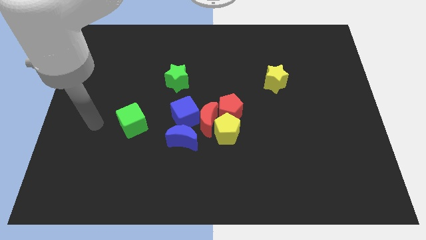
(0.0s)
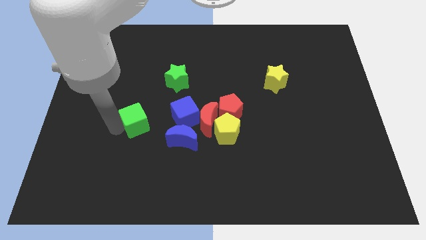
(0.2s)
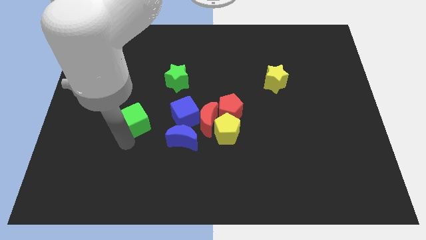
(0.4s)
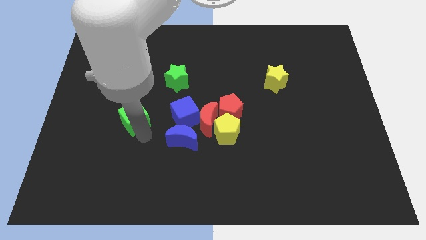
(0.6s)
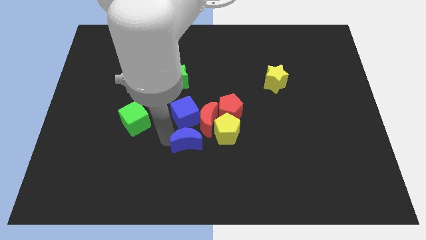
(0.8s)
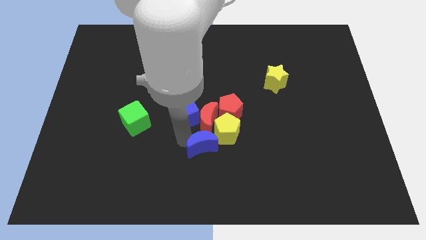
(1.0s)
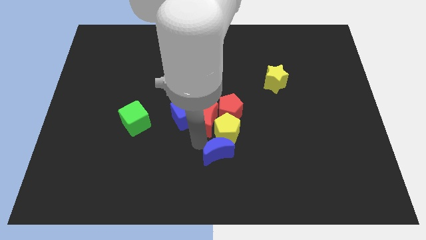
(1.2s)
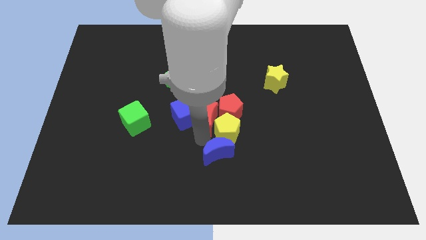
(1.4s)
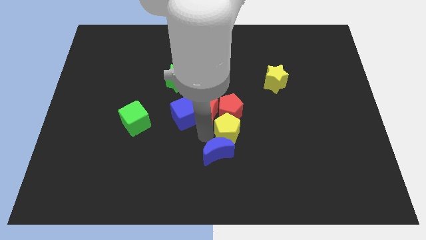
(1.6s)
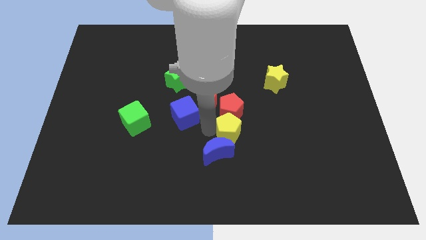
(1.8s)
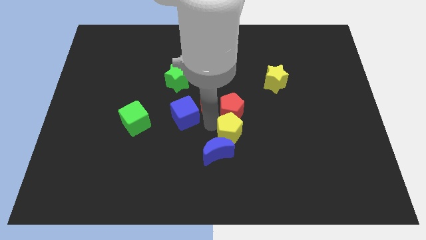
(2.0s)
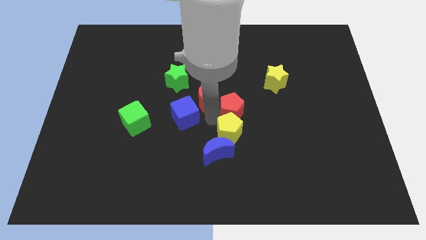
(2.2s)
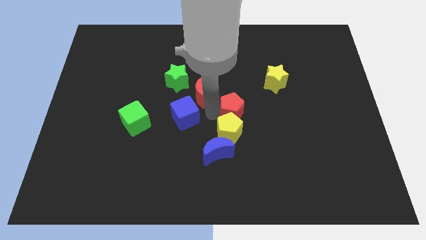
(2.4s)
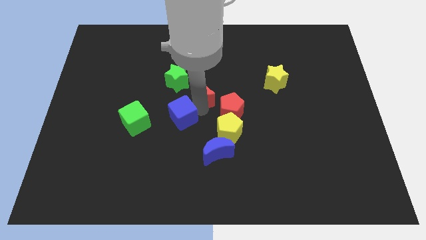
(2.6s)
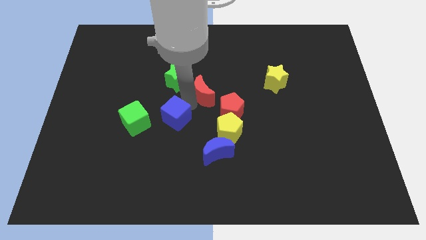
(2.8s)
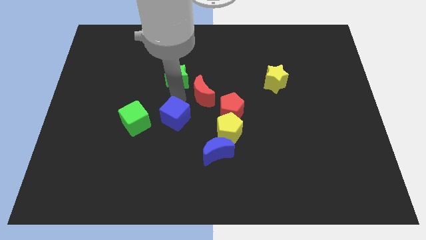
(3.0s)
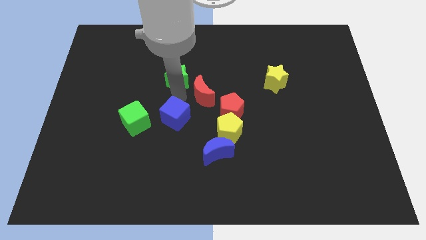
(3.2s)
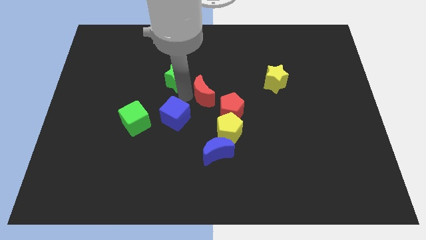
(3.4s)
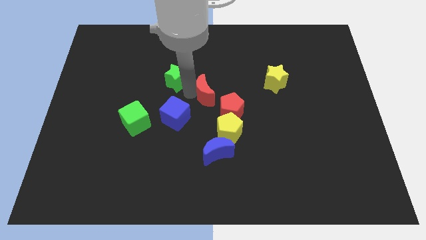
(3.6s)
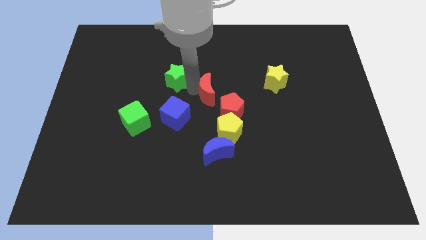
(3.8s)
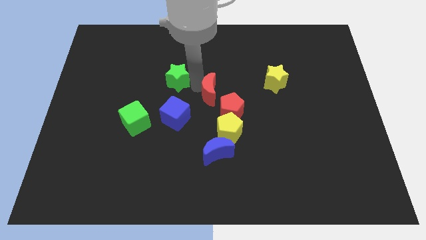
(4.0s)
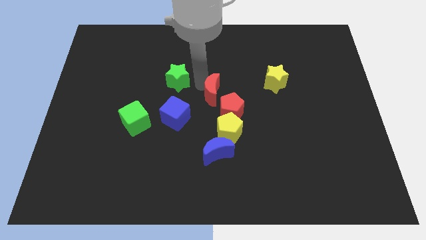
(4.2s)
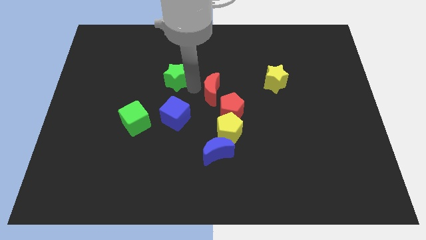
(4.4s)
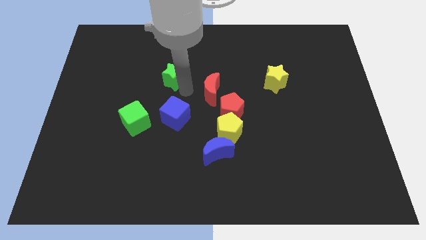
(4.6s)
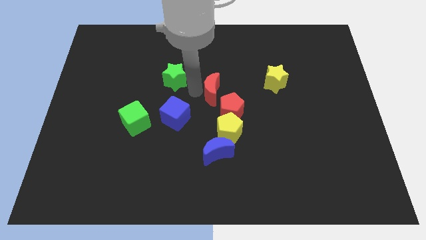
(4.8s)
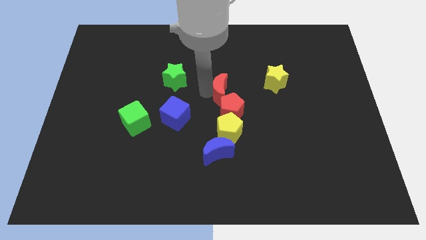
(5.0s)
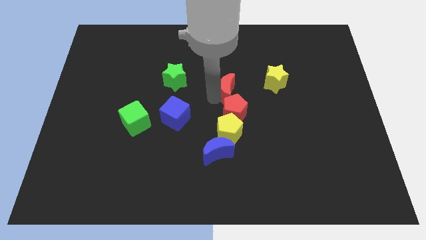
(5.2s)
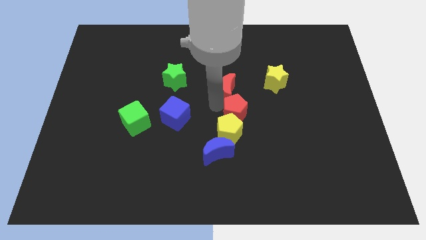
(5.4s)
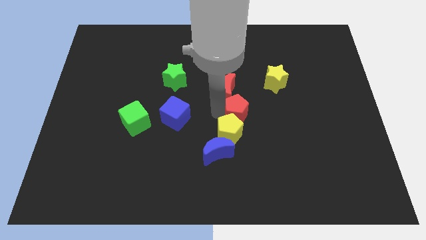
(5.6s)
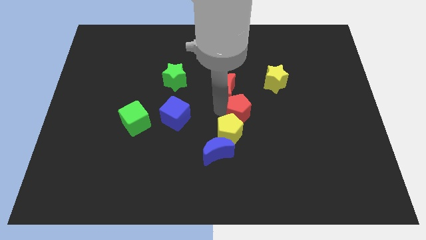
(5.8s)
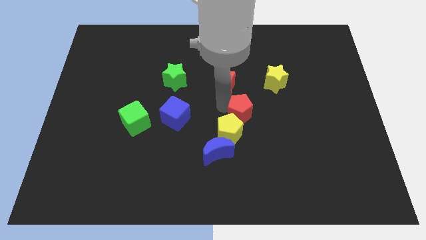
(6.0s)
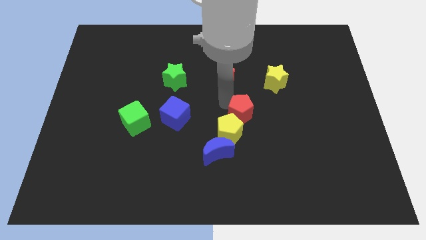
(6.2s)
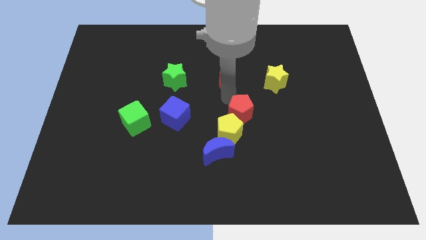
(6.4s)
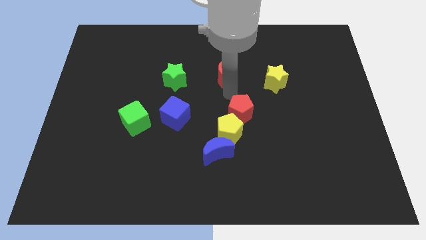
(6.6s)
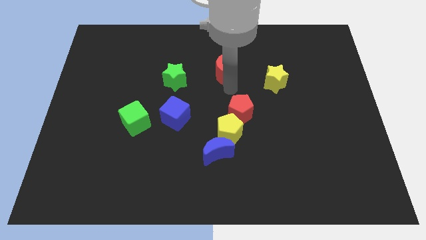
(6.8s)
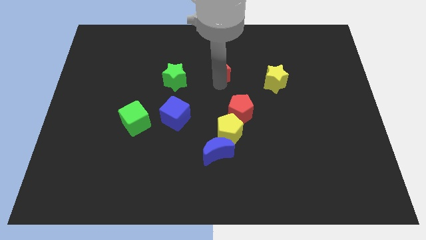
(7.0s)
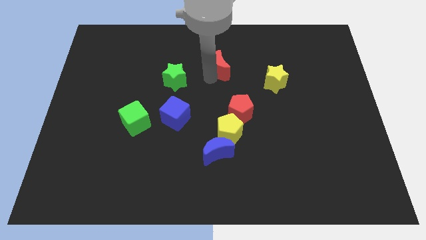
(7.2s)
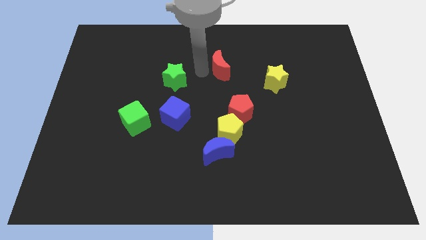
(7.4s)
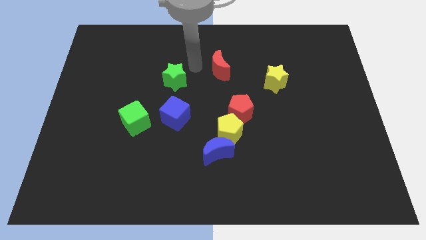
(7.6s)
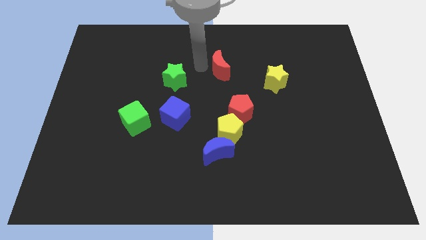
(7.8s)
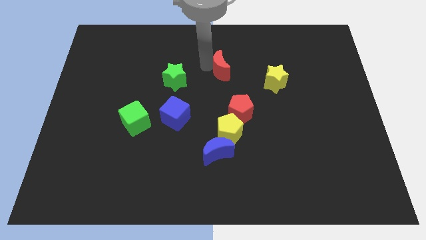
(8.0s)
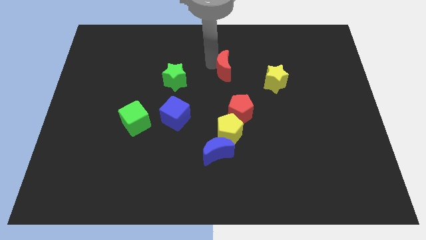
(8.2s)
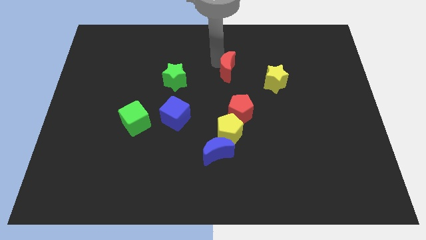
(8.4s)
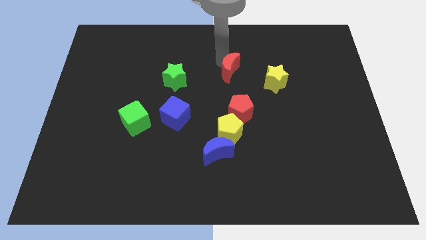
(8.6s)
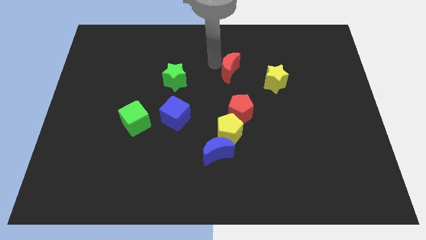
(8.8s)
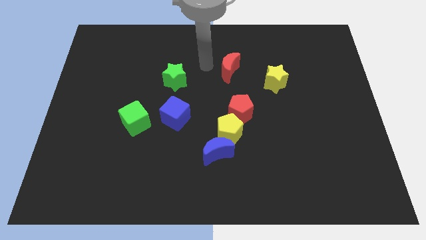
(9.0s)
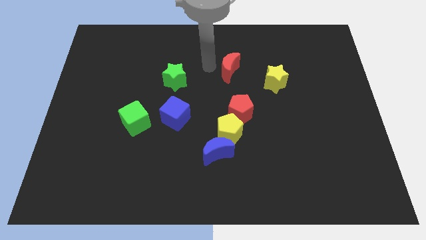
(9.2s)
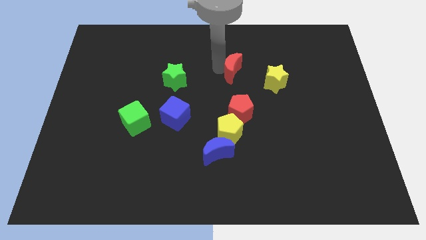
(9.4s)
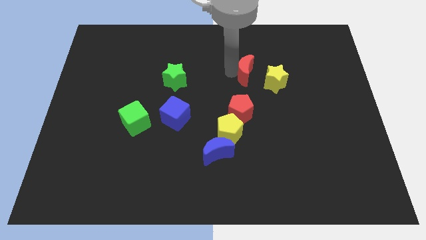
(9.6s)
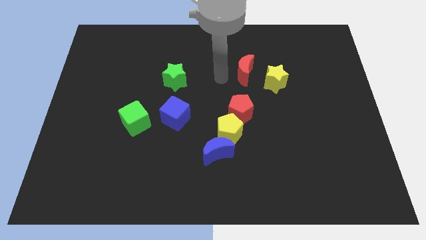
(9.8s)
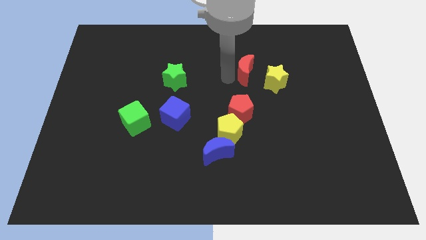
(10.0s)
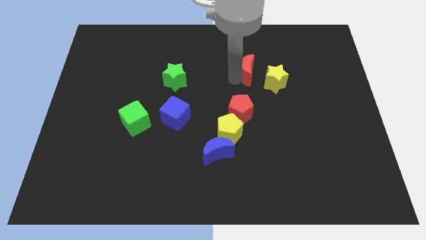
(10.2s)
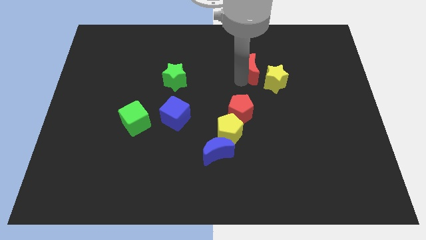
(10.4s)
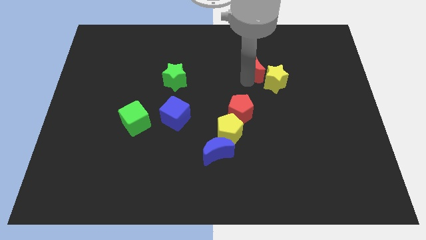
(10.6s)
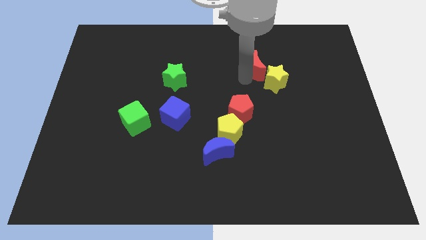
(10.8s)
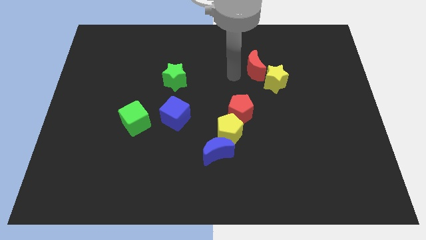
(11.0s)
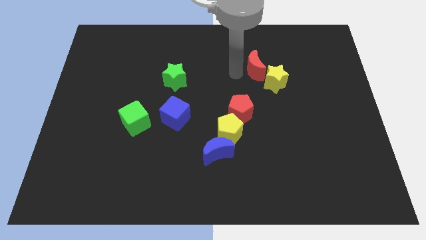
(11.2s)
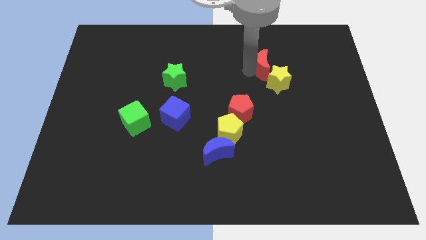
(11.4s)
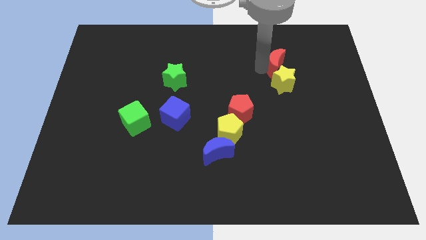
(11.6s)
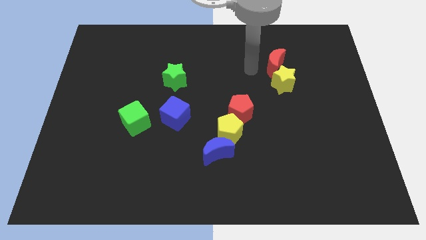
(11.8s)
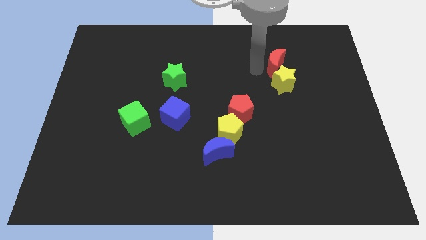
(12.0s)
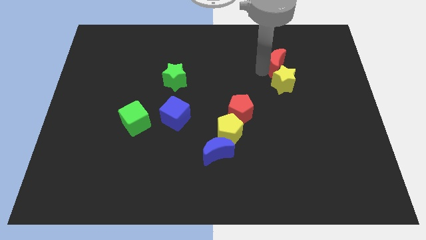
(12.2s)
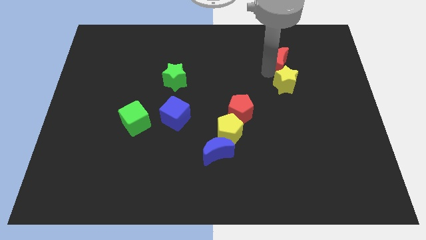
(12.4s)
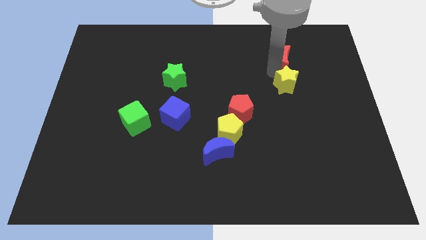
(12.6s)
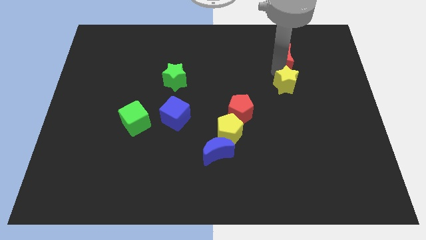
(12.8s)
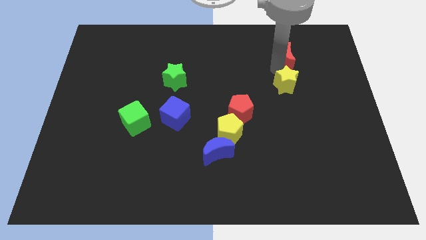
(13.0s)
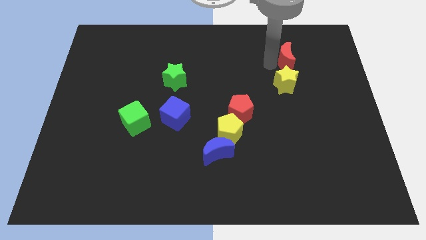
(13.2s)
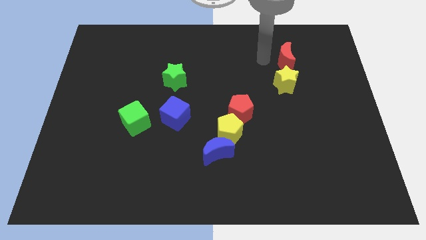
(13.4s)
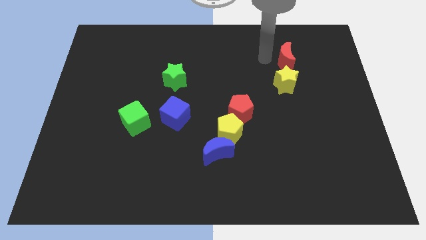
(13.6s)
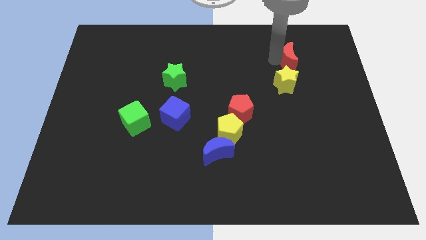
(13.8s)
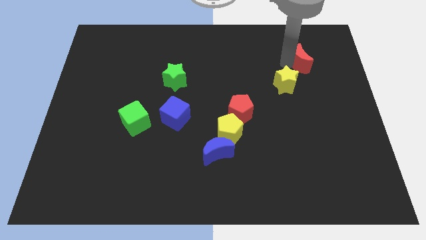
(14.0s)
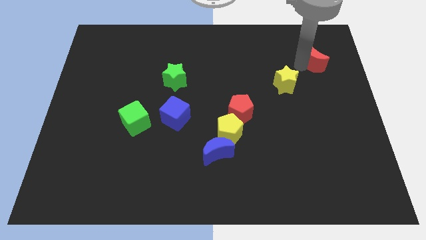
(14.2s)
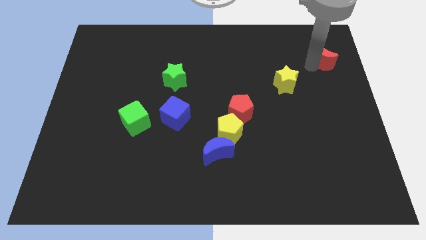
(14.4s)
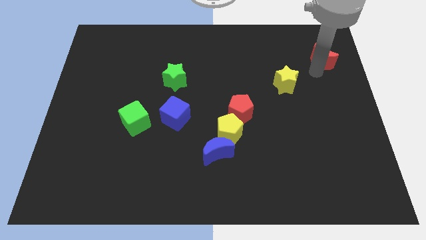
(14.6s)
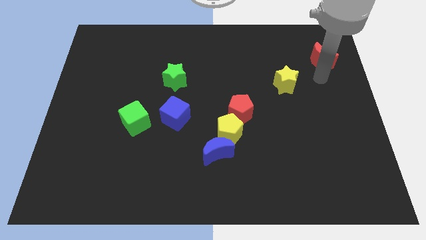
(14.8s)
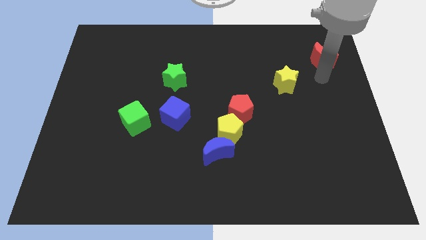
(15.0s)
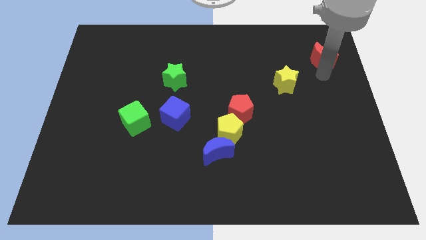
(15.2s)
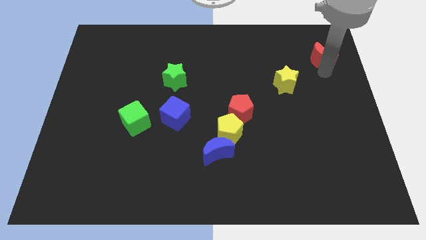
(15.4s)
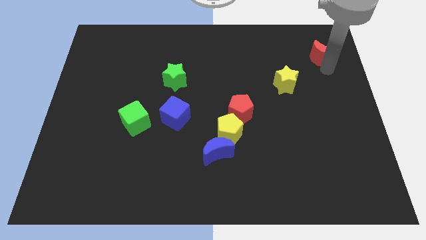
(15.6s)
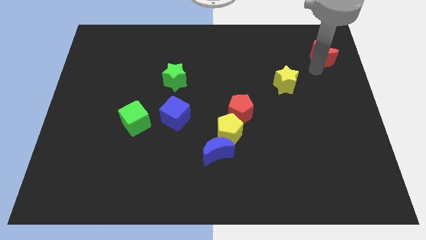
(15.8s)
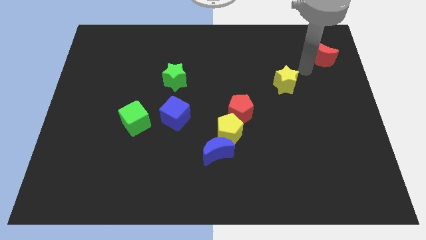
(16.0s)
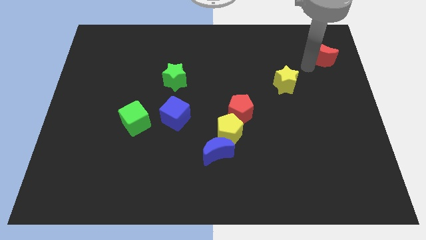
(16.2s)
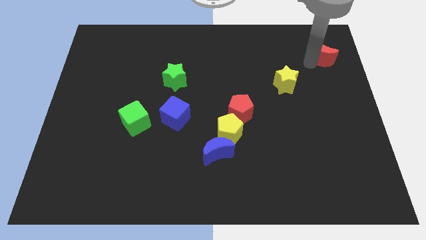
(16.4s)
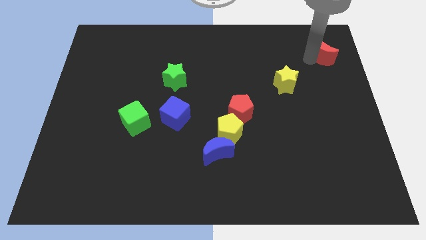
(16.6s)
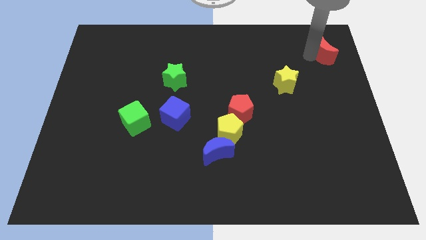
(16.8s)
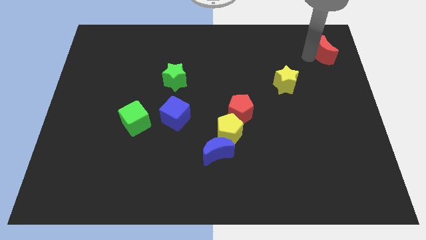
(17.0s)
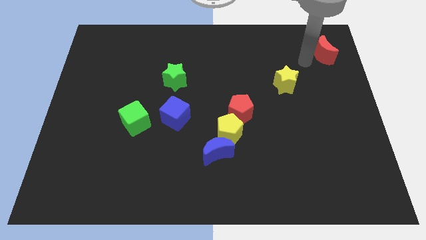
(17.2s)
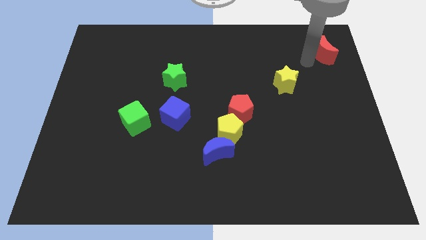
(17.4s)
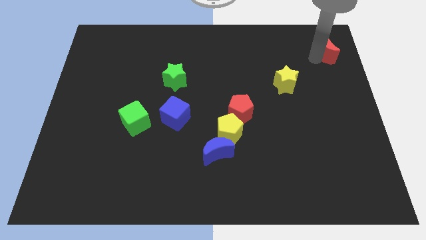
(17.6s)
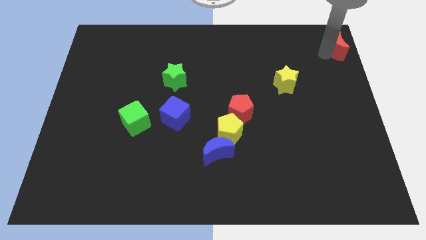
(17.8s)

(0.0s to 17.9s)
push the red moon to the upper right corner
